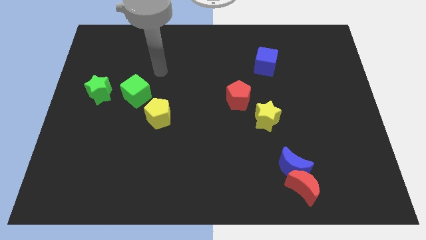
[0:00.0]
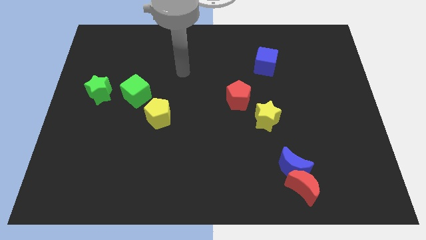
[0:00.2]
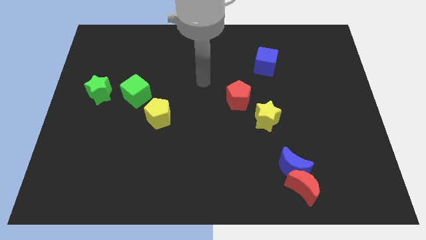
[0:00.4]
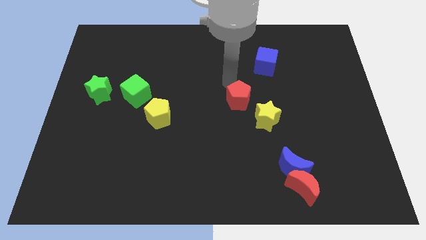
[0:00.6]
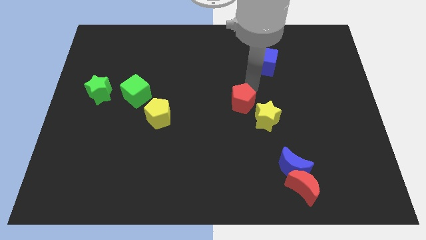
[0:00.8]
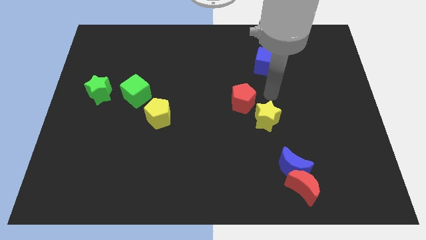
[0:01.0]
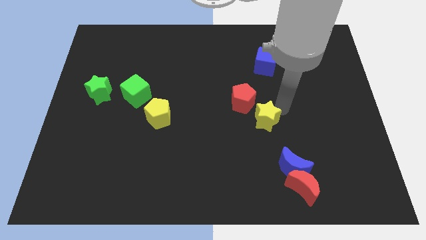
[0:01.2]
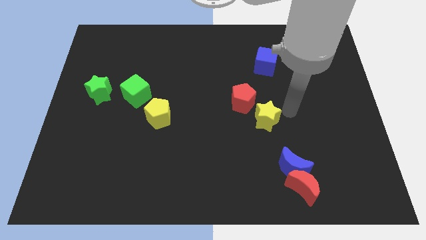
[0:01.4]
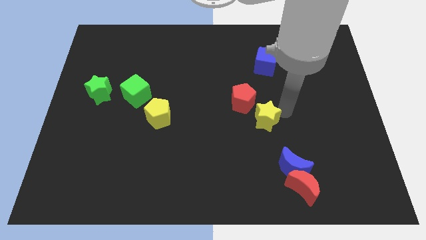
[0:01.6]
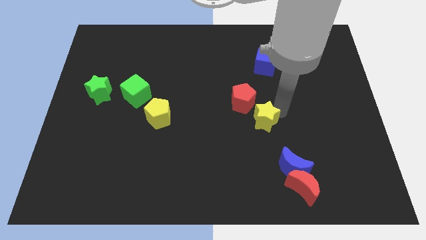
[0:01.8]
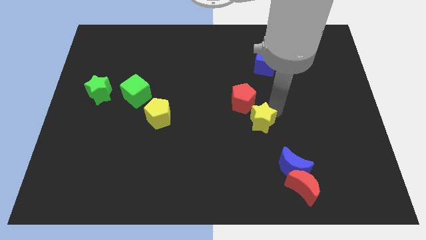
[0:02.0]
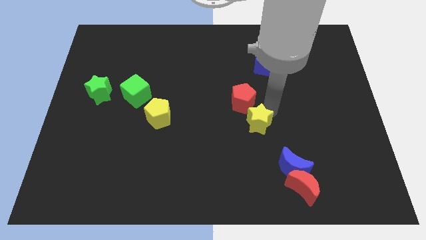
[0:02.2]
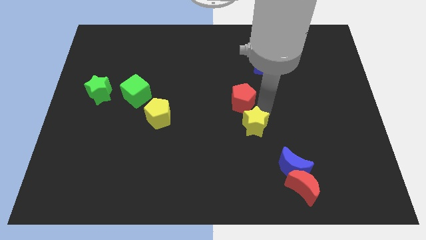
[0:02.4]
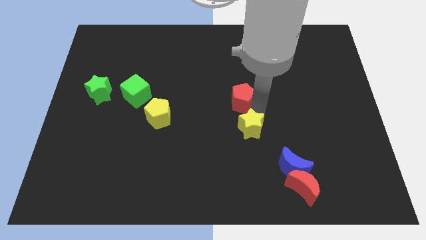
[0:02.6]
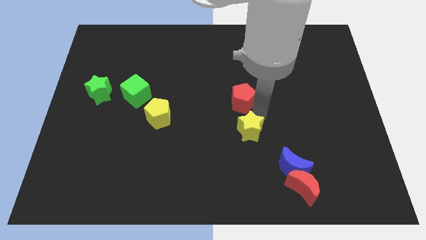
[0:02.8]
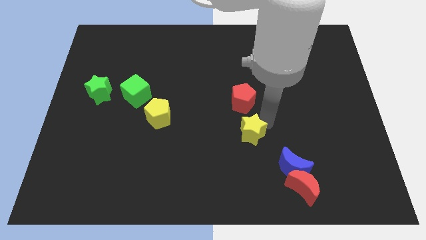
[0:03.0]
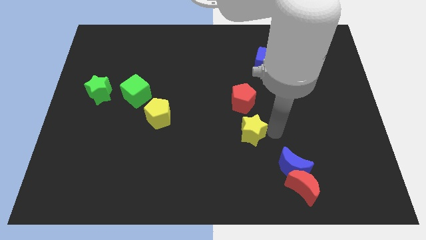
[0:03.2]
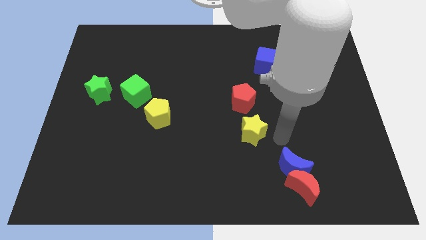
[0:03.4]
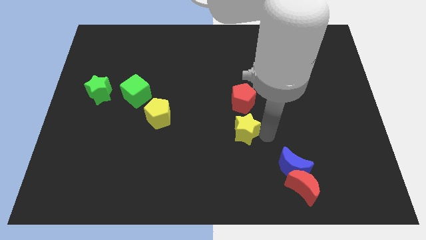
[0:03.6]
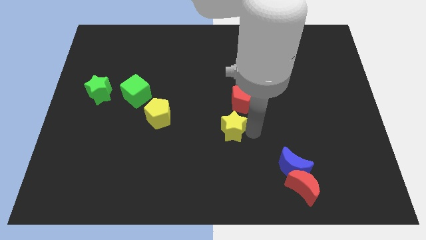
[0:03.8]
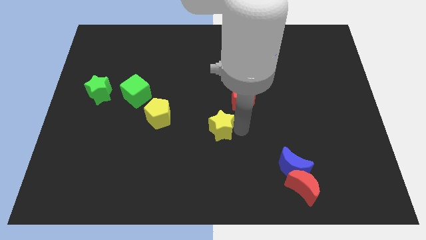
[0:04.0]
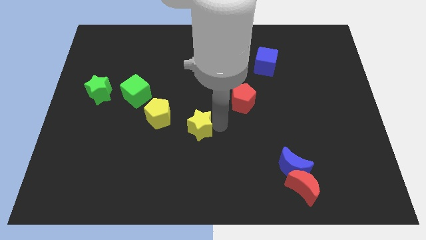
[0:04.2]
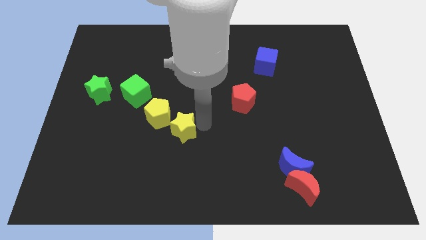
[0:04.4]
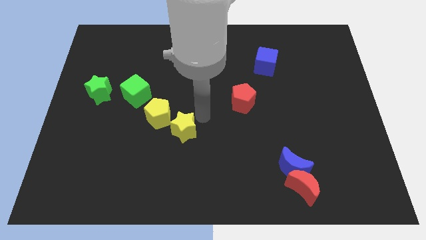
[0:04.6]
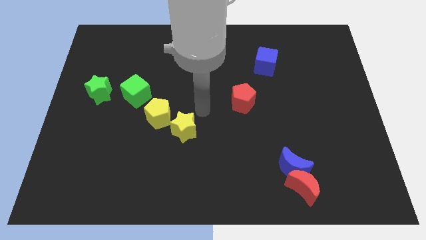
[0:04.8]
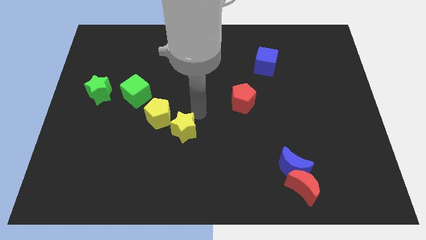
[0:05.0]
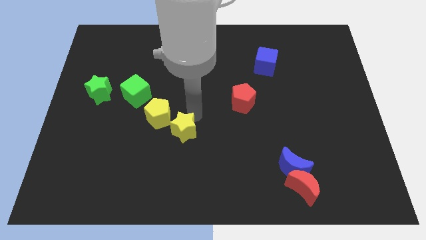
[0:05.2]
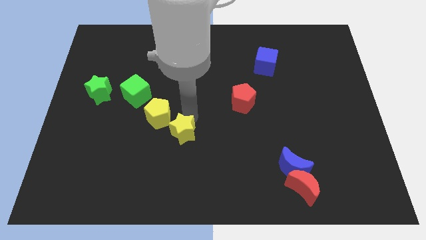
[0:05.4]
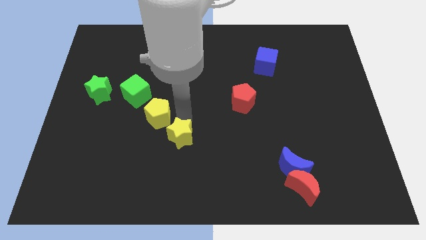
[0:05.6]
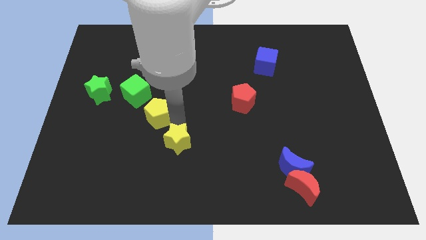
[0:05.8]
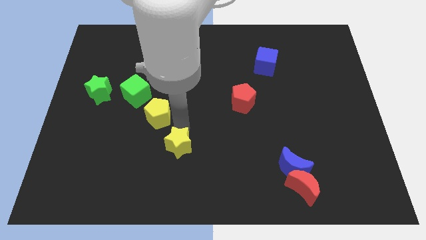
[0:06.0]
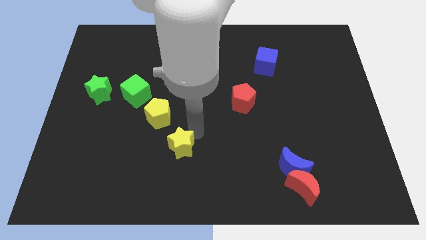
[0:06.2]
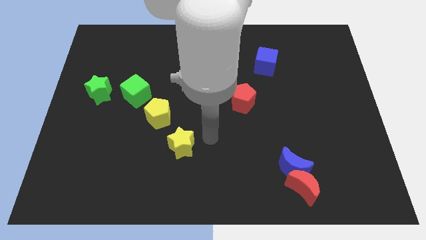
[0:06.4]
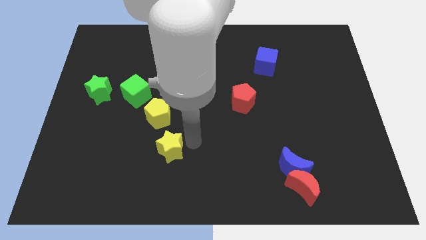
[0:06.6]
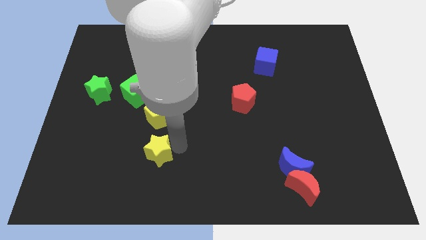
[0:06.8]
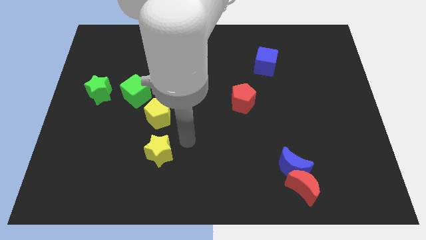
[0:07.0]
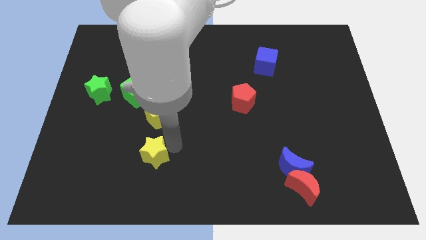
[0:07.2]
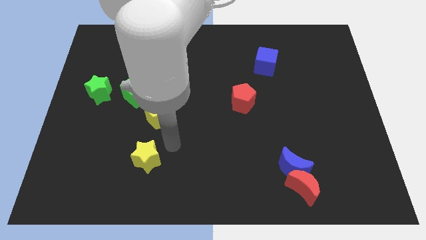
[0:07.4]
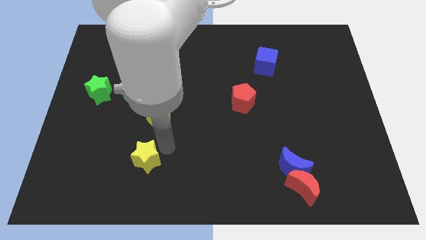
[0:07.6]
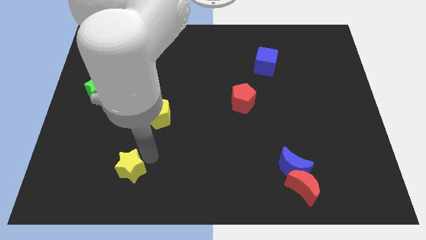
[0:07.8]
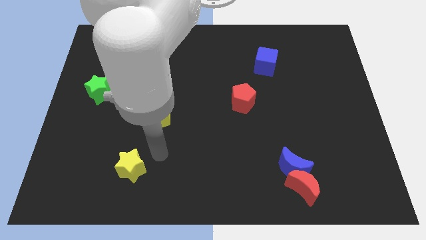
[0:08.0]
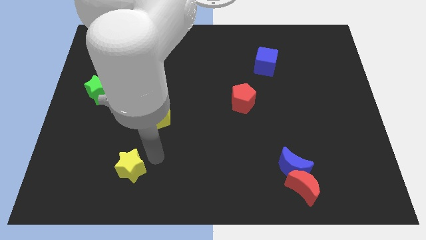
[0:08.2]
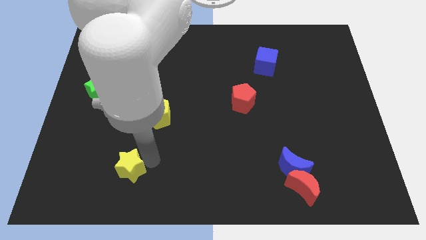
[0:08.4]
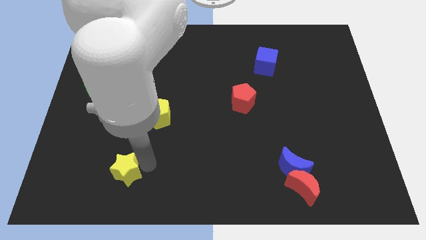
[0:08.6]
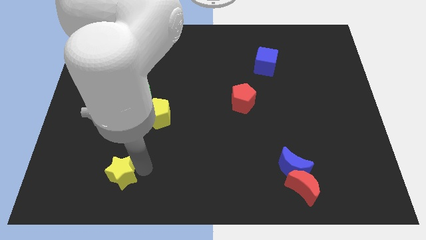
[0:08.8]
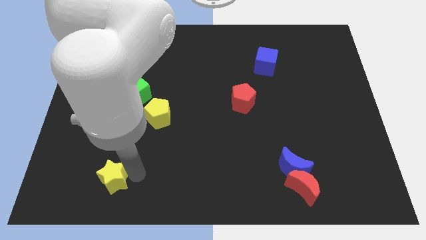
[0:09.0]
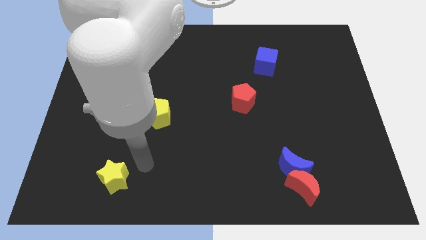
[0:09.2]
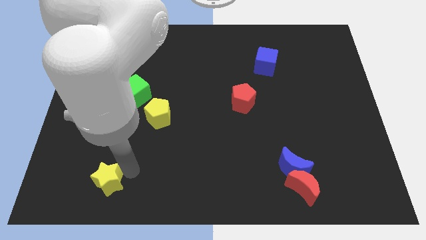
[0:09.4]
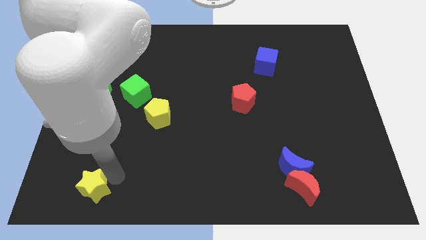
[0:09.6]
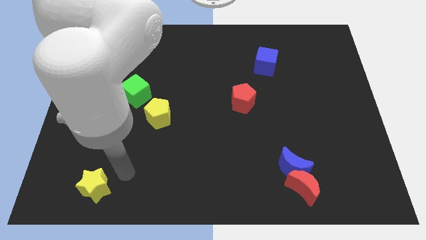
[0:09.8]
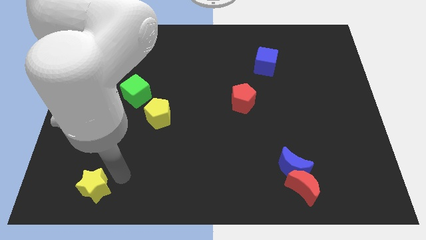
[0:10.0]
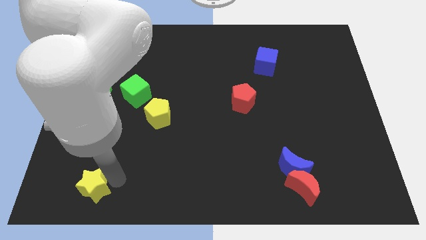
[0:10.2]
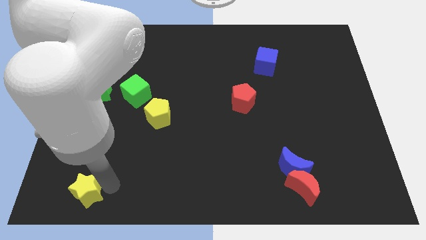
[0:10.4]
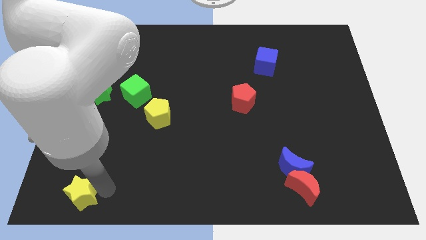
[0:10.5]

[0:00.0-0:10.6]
push the yellow star to the bottom left corner
